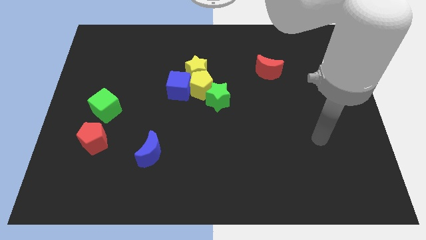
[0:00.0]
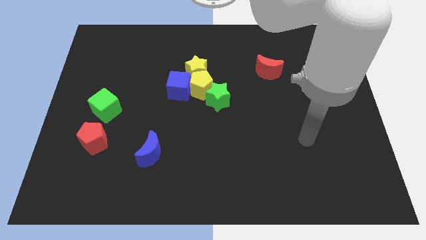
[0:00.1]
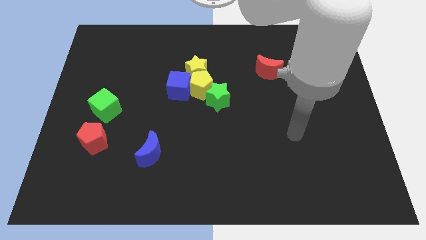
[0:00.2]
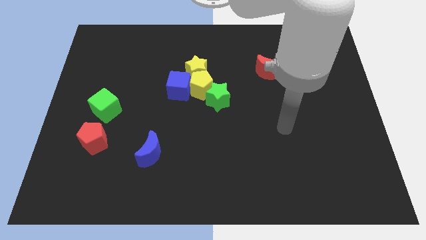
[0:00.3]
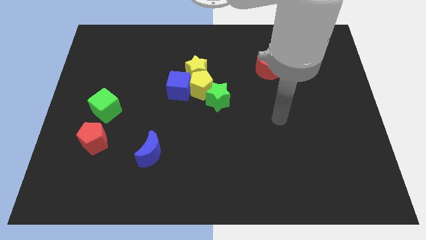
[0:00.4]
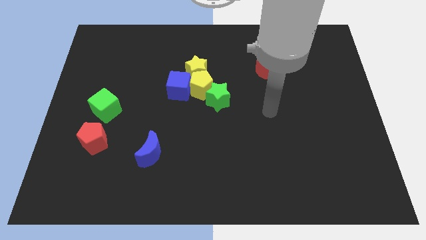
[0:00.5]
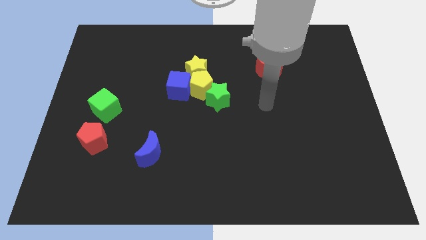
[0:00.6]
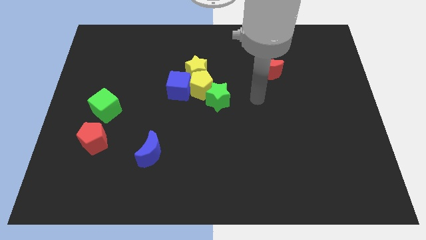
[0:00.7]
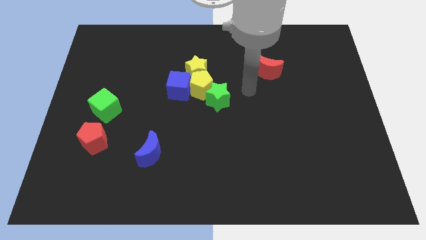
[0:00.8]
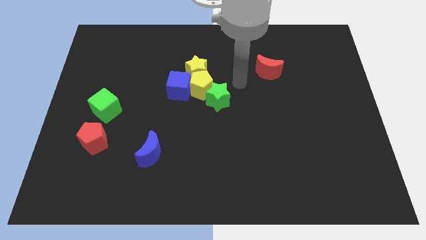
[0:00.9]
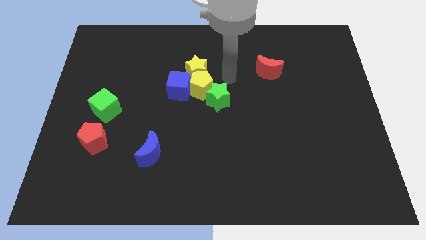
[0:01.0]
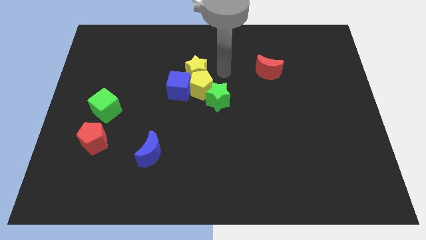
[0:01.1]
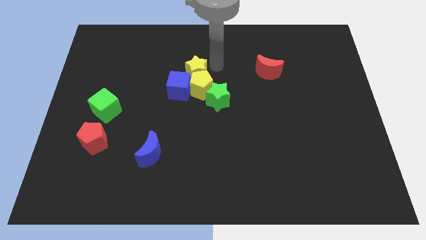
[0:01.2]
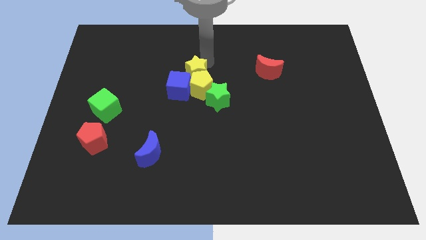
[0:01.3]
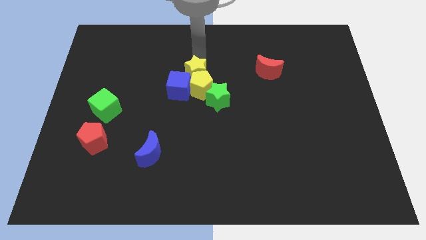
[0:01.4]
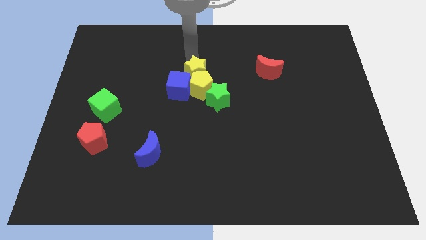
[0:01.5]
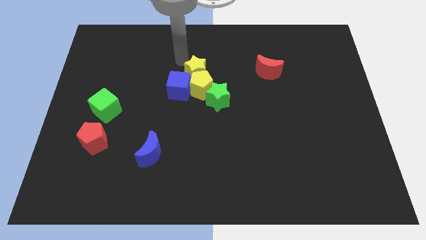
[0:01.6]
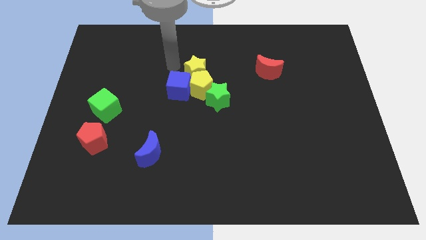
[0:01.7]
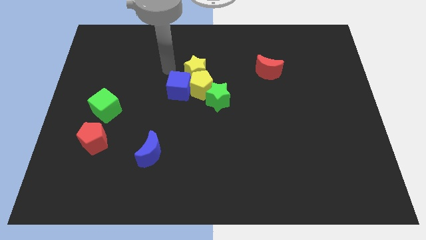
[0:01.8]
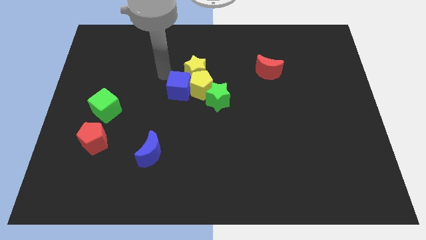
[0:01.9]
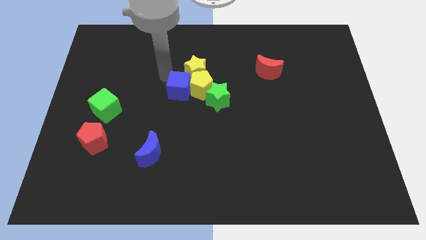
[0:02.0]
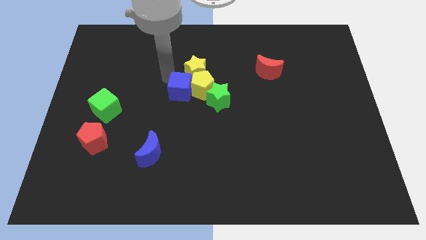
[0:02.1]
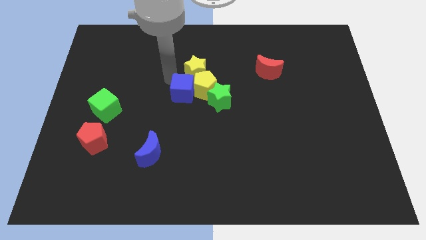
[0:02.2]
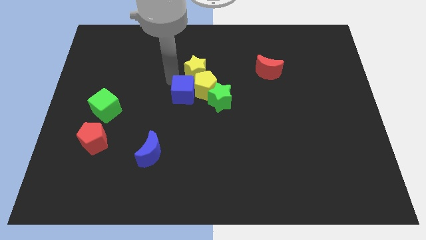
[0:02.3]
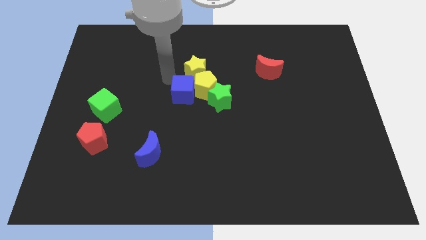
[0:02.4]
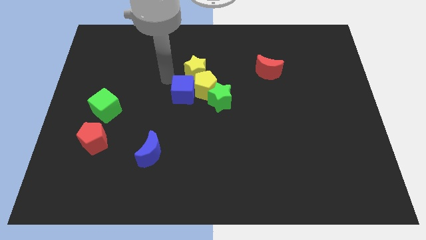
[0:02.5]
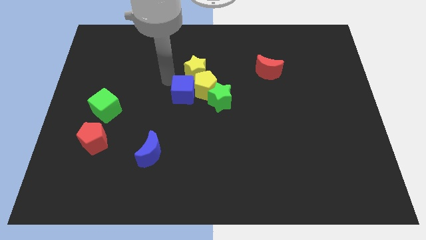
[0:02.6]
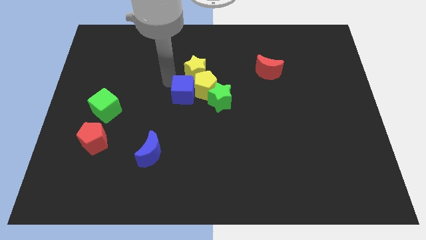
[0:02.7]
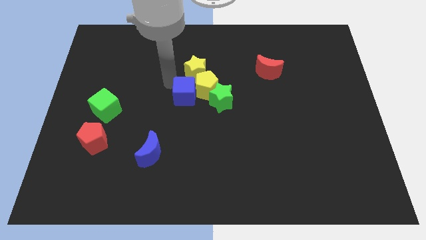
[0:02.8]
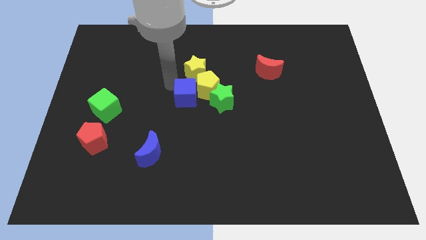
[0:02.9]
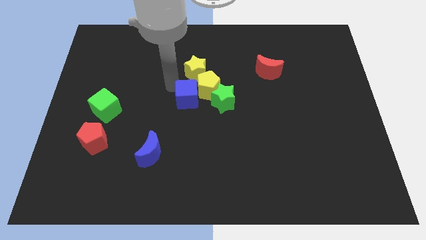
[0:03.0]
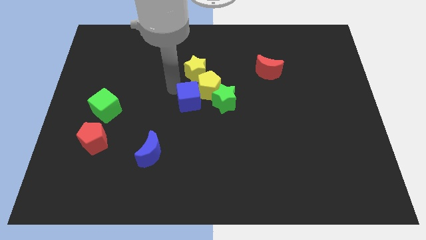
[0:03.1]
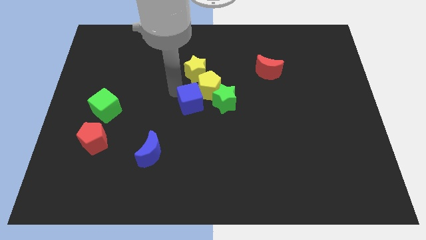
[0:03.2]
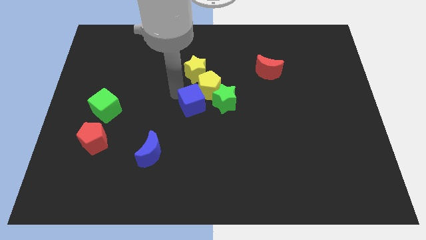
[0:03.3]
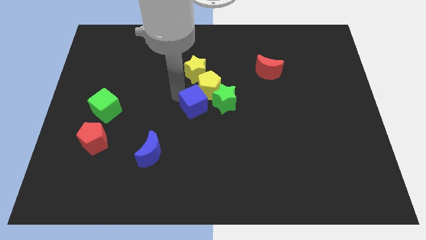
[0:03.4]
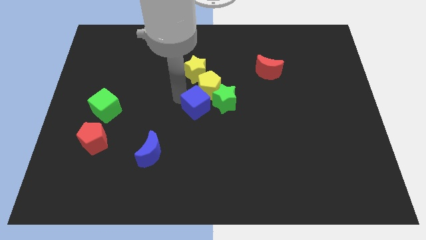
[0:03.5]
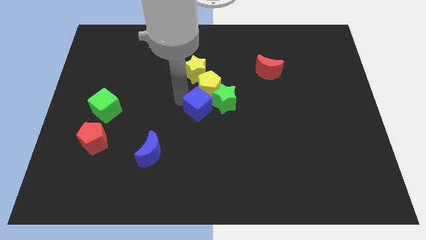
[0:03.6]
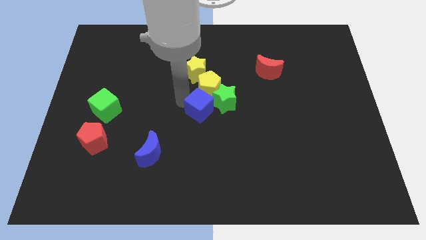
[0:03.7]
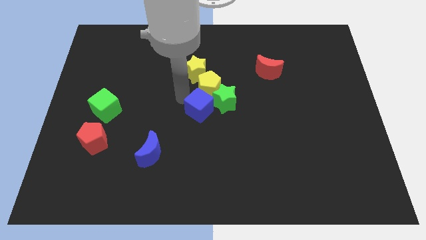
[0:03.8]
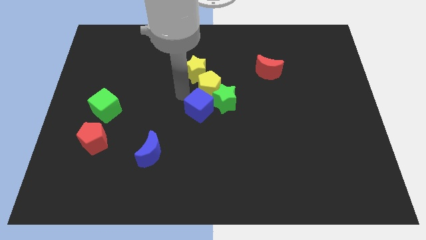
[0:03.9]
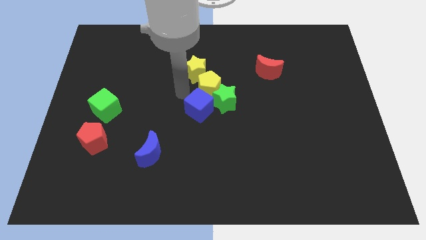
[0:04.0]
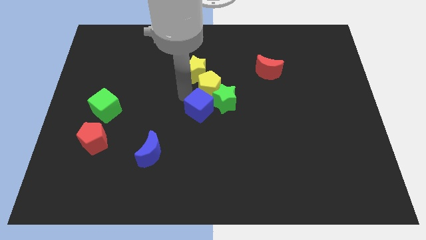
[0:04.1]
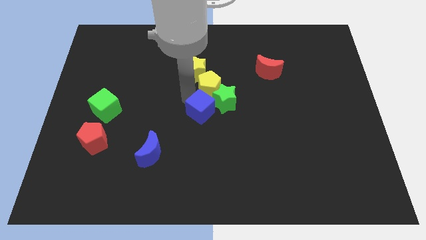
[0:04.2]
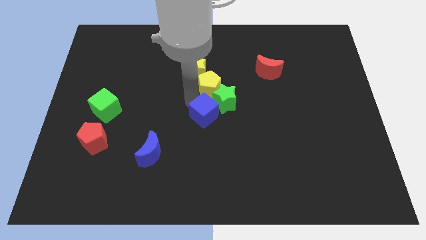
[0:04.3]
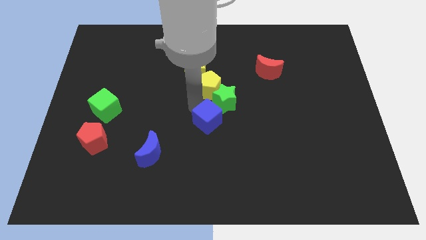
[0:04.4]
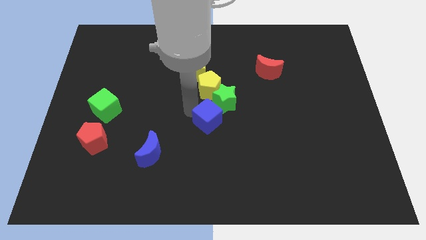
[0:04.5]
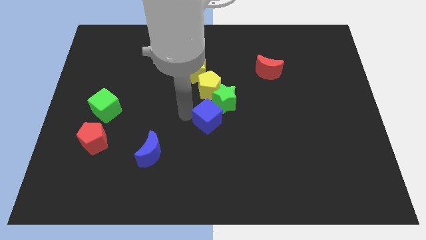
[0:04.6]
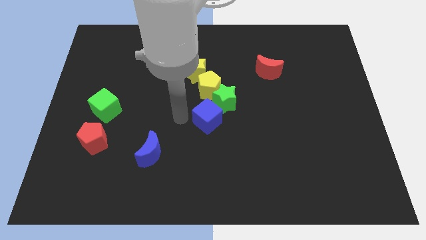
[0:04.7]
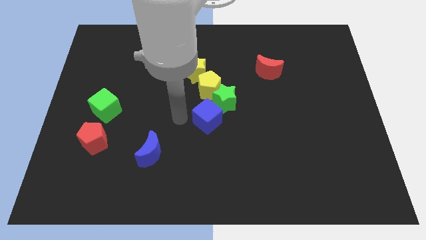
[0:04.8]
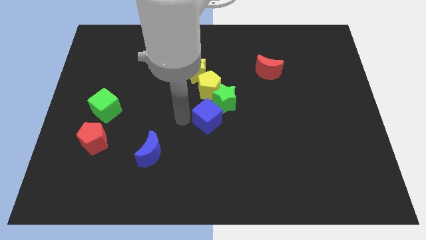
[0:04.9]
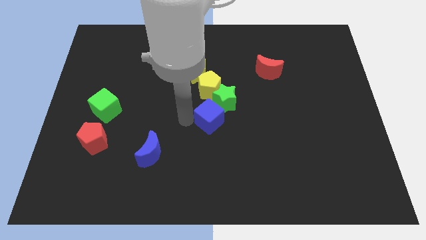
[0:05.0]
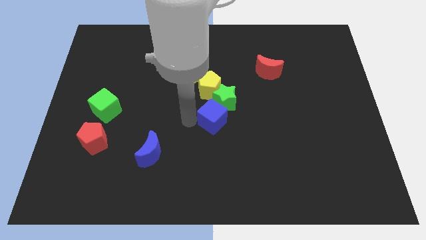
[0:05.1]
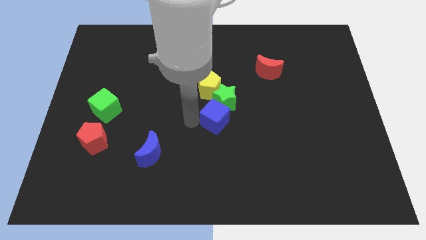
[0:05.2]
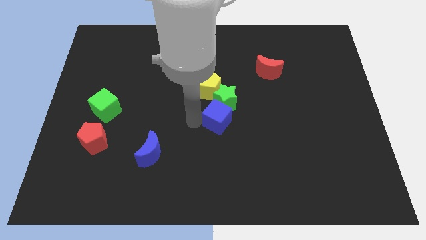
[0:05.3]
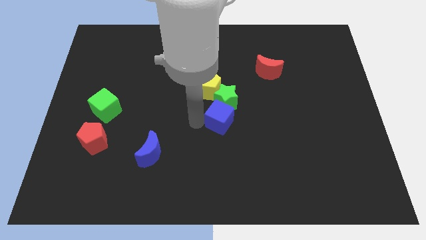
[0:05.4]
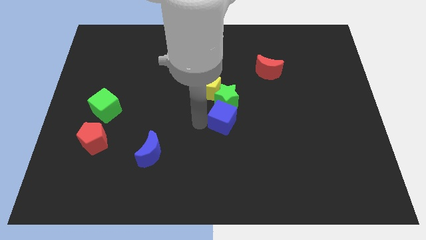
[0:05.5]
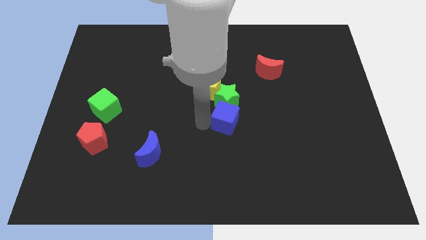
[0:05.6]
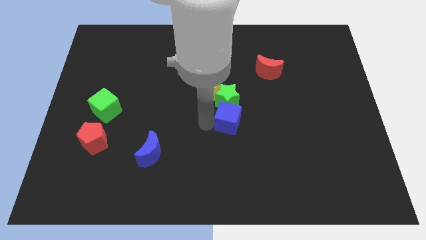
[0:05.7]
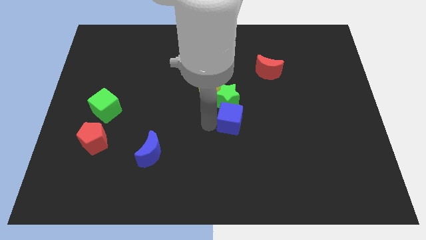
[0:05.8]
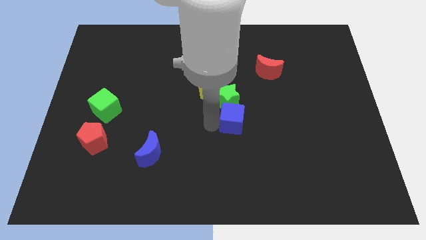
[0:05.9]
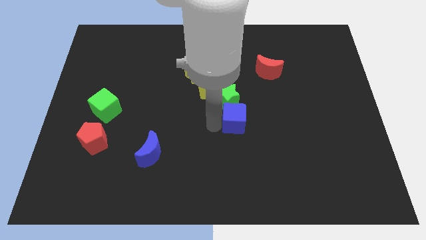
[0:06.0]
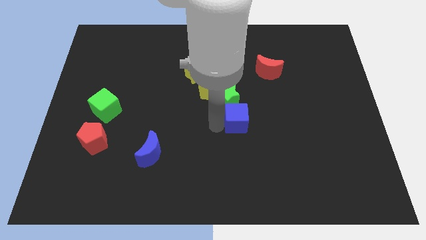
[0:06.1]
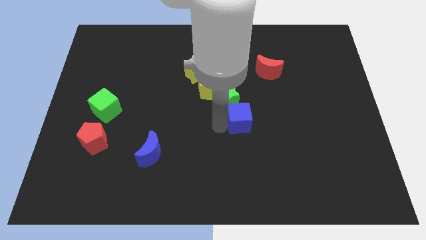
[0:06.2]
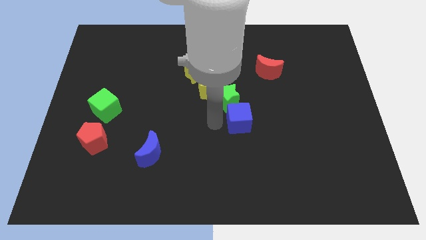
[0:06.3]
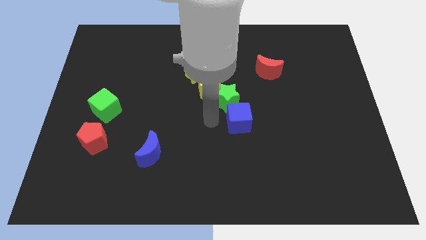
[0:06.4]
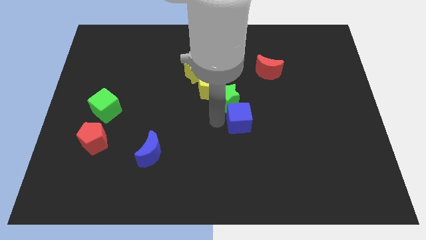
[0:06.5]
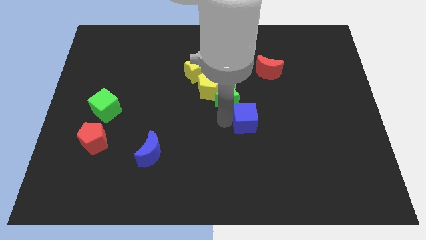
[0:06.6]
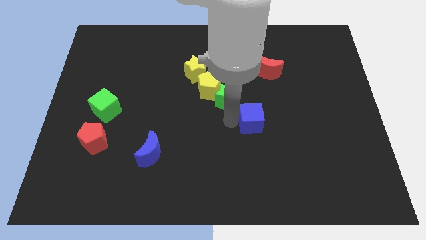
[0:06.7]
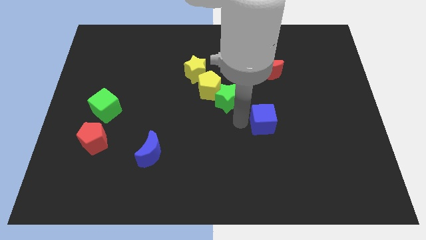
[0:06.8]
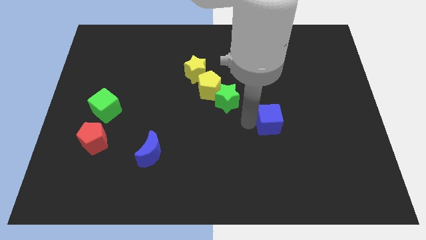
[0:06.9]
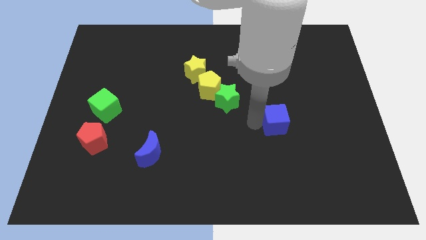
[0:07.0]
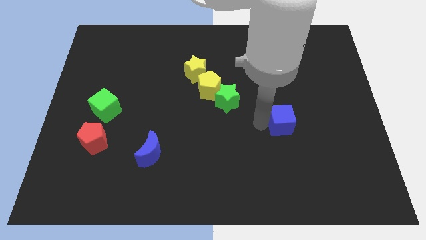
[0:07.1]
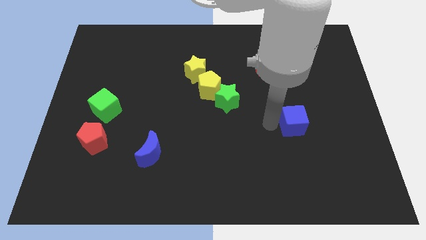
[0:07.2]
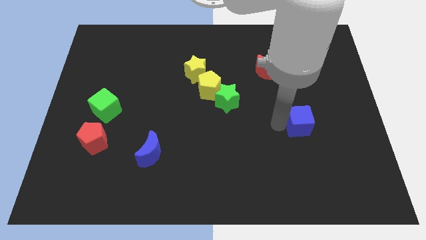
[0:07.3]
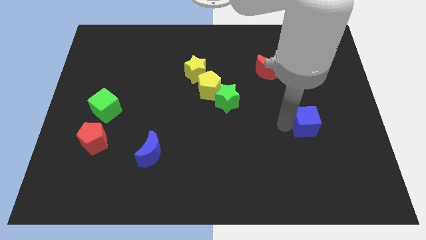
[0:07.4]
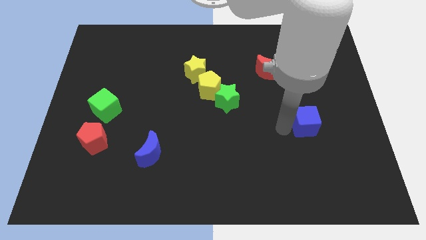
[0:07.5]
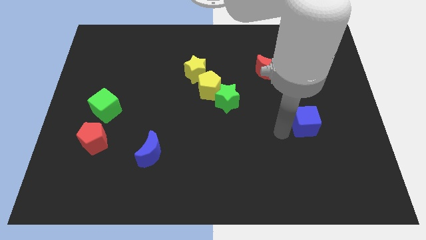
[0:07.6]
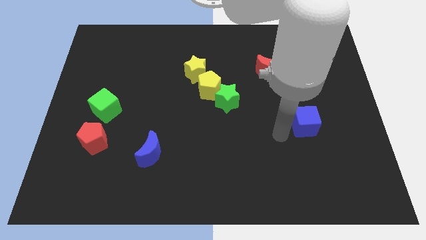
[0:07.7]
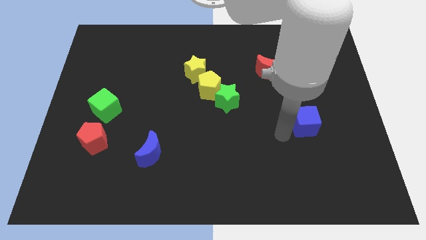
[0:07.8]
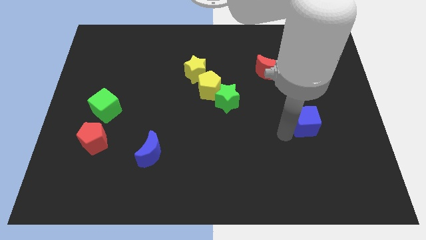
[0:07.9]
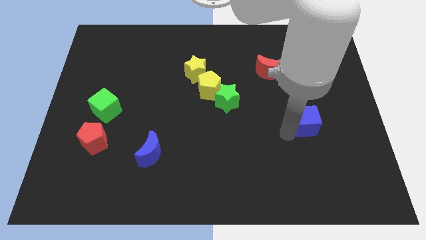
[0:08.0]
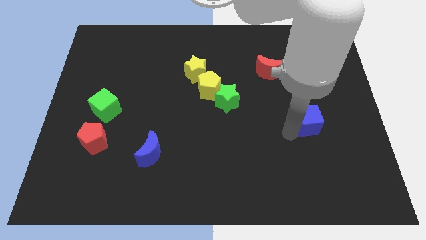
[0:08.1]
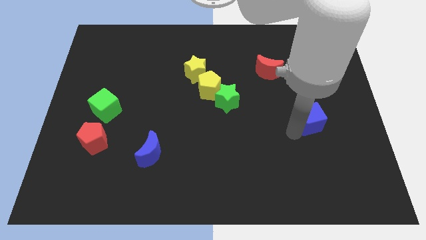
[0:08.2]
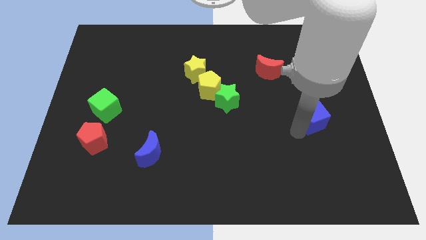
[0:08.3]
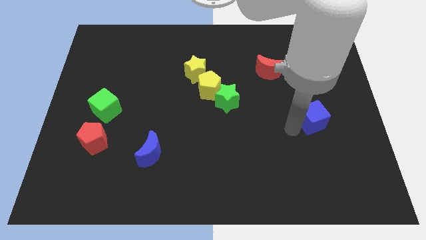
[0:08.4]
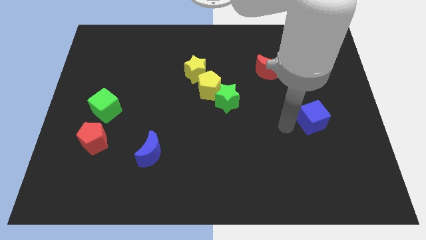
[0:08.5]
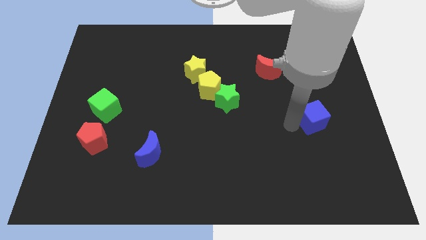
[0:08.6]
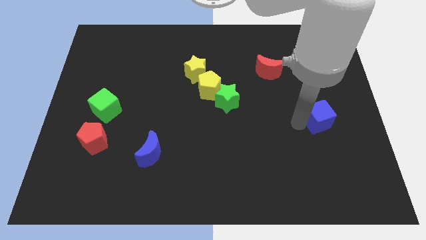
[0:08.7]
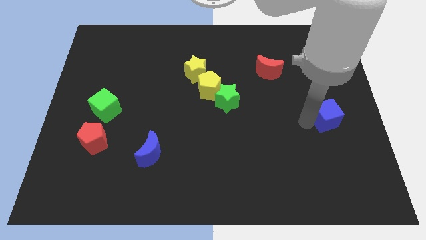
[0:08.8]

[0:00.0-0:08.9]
put the blue cube to the right side of the board
